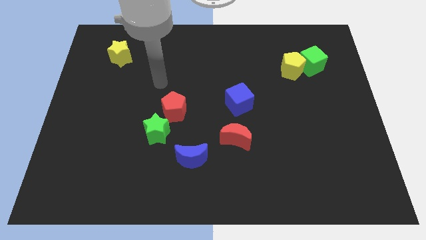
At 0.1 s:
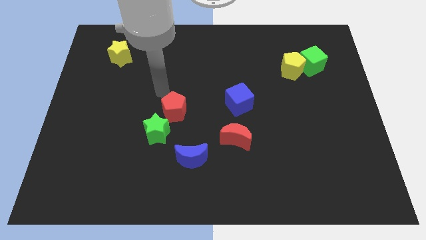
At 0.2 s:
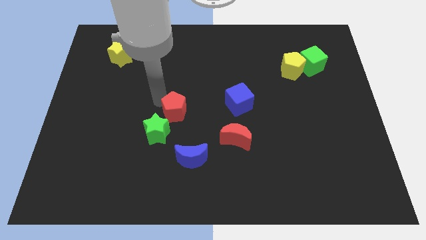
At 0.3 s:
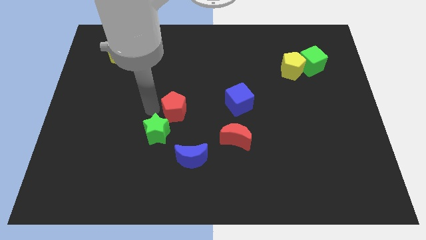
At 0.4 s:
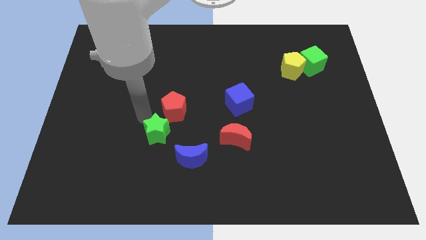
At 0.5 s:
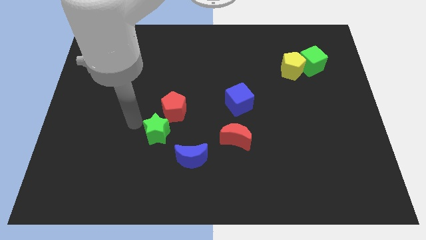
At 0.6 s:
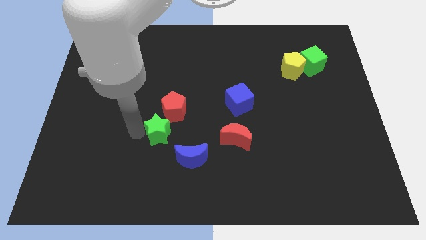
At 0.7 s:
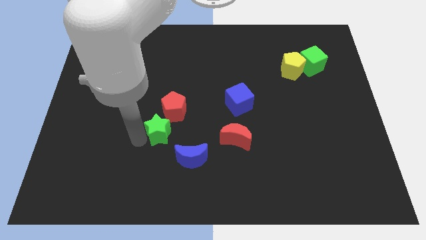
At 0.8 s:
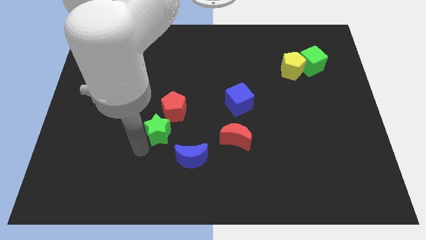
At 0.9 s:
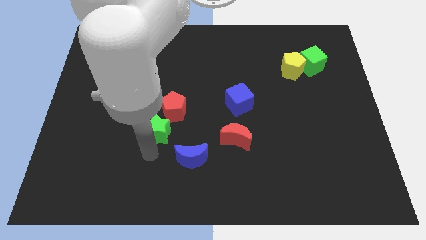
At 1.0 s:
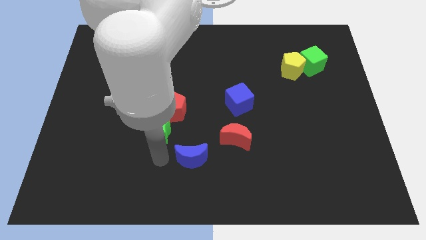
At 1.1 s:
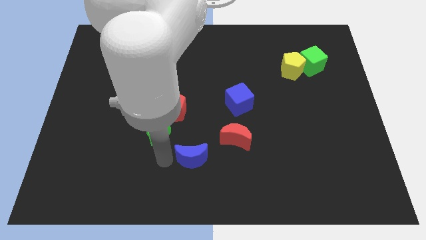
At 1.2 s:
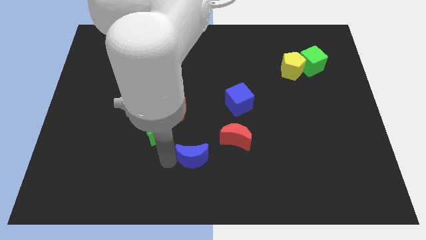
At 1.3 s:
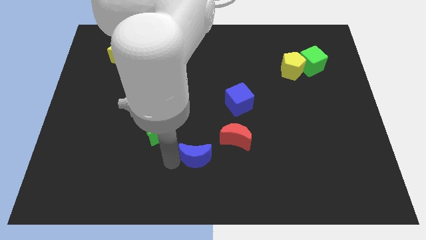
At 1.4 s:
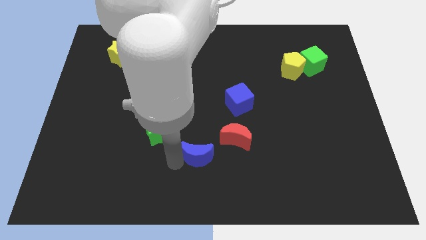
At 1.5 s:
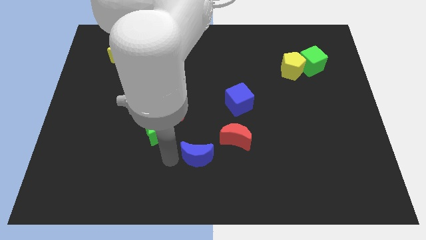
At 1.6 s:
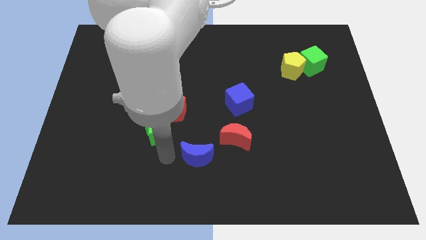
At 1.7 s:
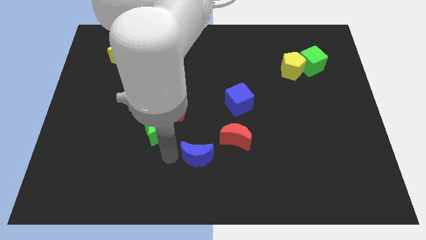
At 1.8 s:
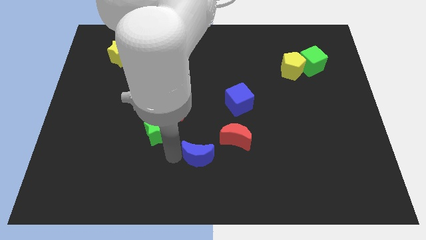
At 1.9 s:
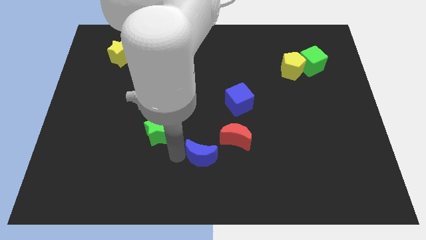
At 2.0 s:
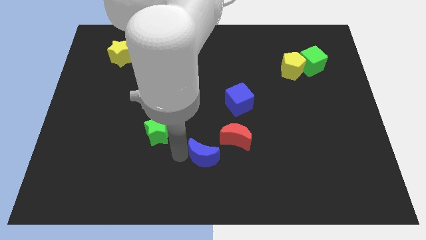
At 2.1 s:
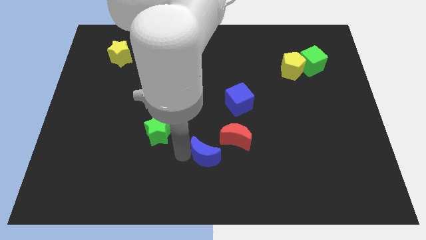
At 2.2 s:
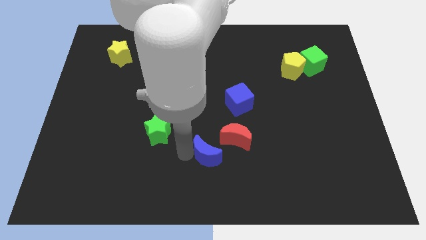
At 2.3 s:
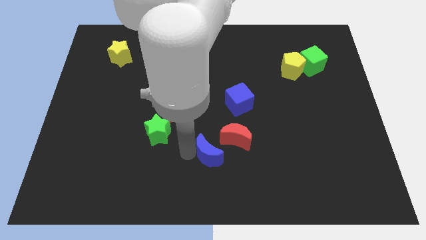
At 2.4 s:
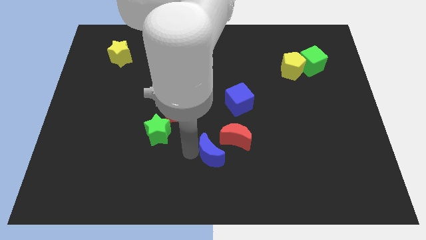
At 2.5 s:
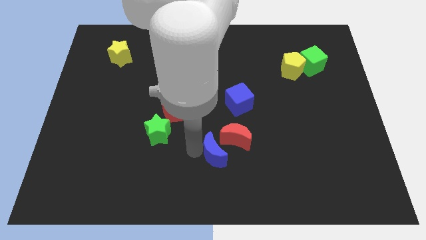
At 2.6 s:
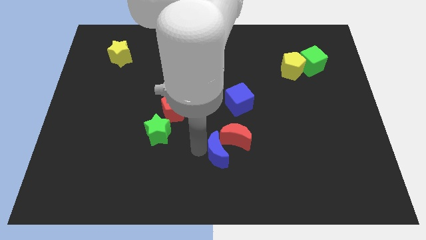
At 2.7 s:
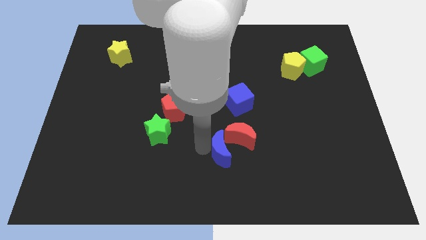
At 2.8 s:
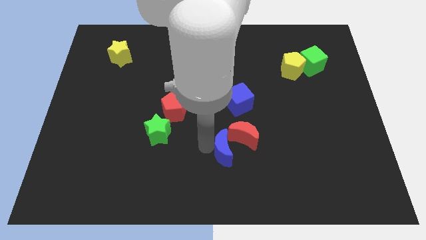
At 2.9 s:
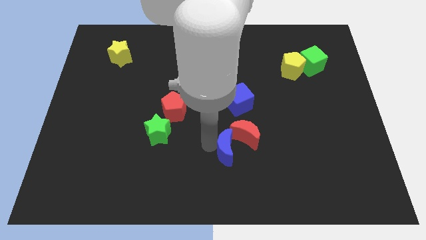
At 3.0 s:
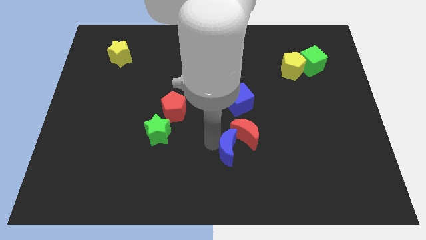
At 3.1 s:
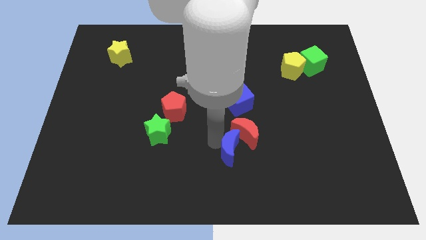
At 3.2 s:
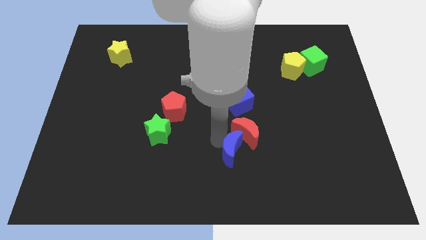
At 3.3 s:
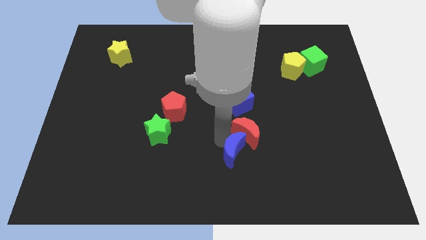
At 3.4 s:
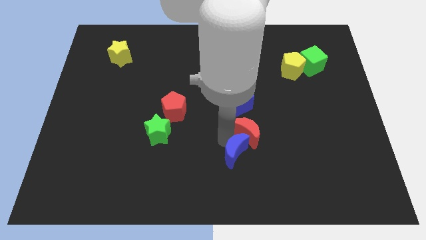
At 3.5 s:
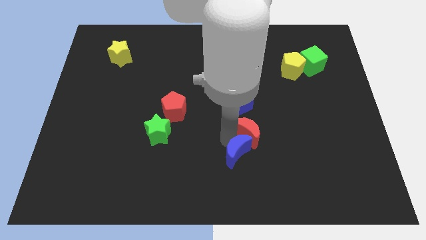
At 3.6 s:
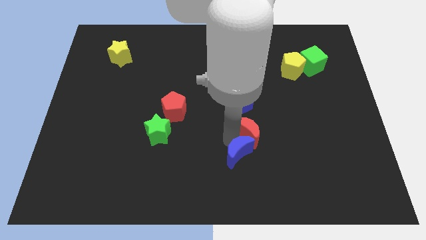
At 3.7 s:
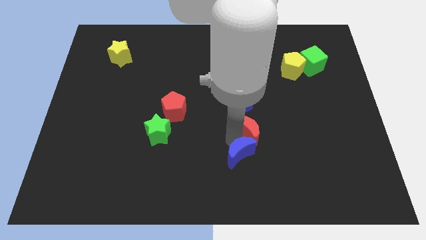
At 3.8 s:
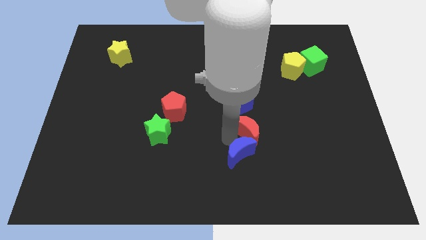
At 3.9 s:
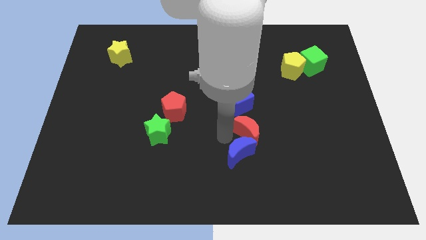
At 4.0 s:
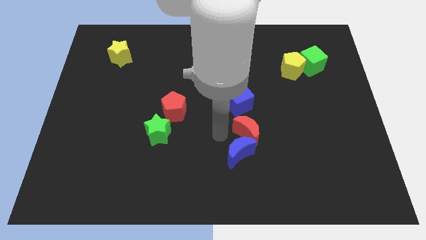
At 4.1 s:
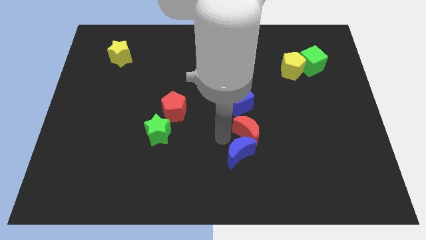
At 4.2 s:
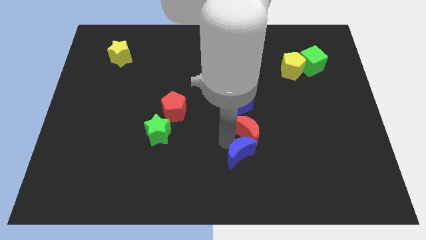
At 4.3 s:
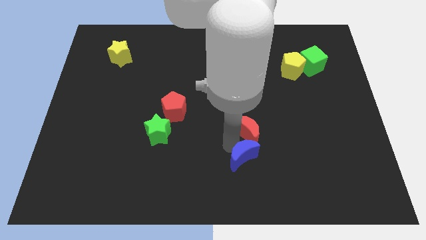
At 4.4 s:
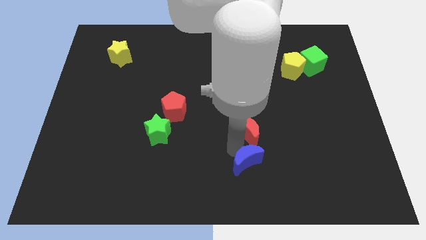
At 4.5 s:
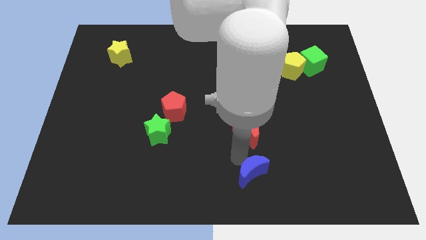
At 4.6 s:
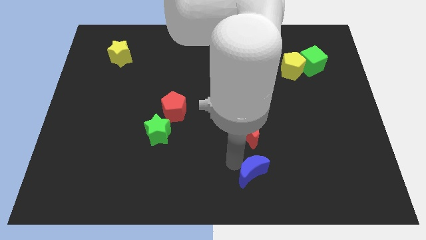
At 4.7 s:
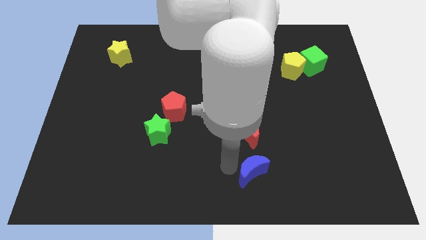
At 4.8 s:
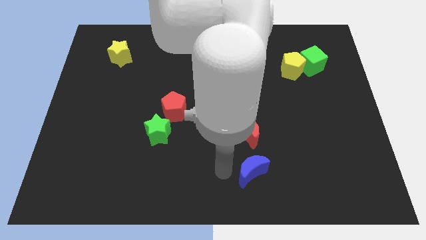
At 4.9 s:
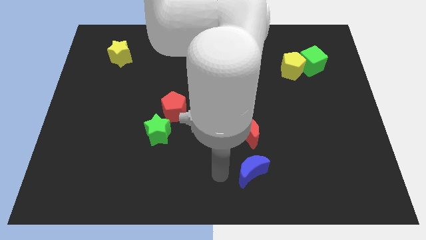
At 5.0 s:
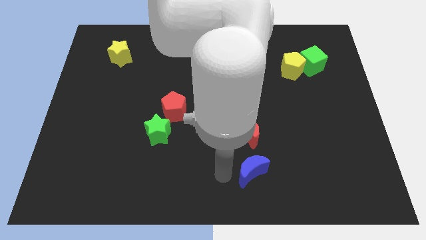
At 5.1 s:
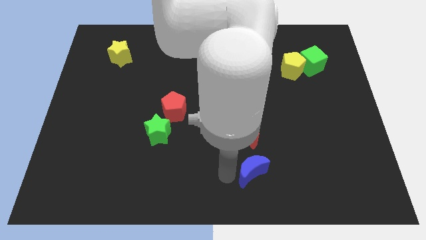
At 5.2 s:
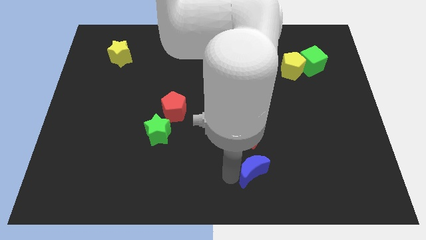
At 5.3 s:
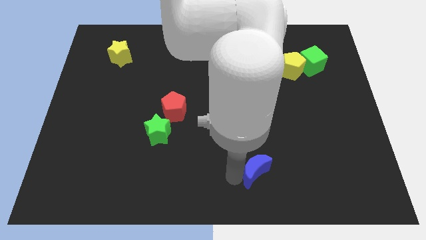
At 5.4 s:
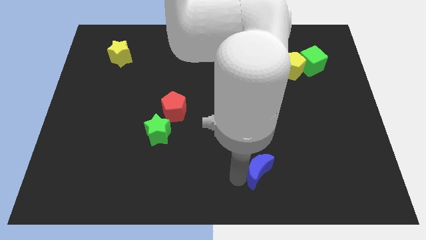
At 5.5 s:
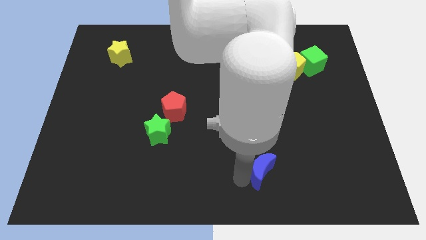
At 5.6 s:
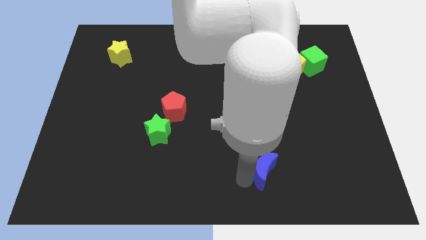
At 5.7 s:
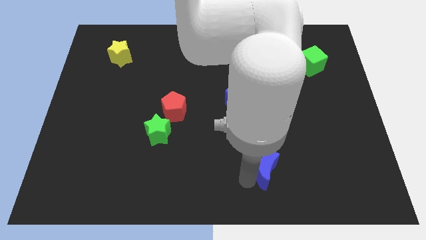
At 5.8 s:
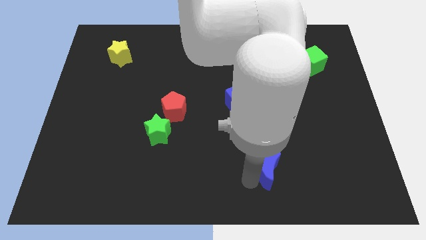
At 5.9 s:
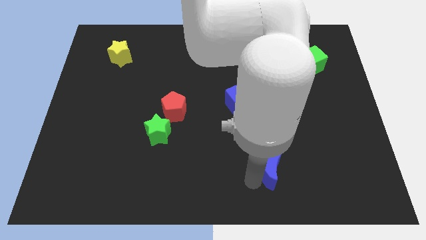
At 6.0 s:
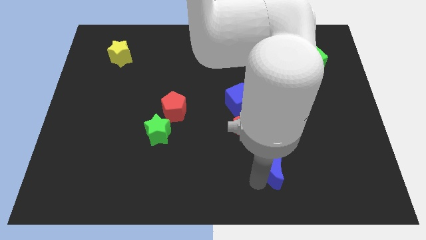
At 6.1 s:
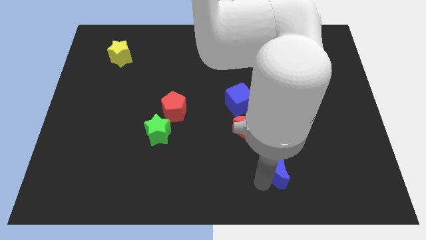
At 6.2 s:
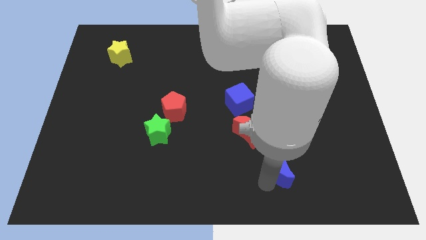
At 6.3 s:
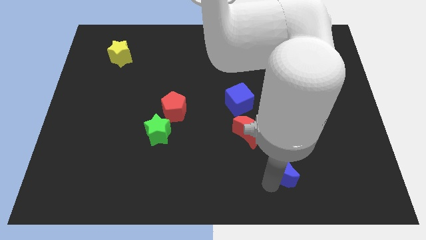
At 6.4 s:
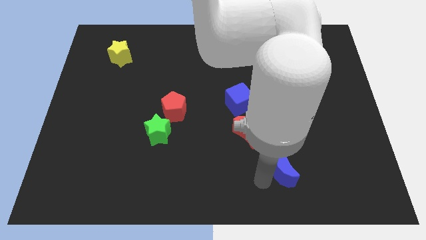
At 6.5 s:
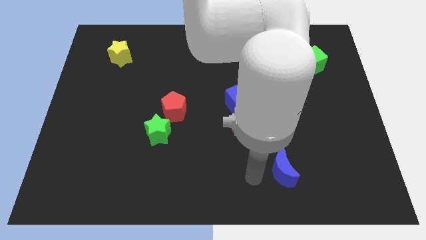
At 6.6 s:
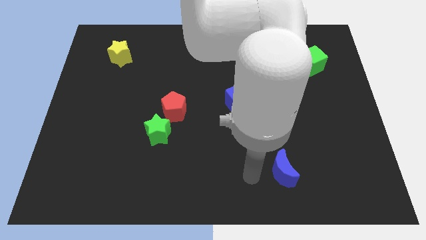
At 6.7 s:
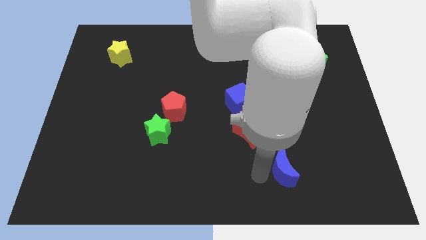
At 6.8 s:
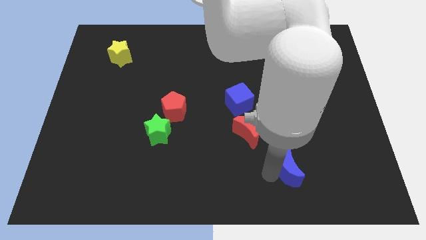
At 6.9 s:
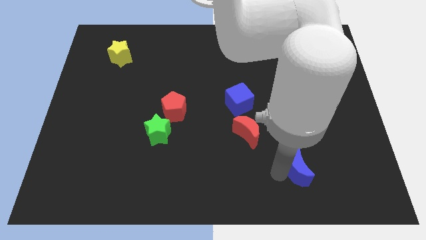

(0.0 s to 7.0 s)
move the blue moon right

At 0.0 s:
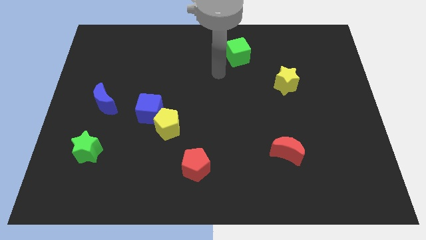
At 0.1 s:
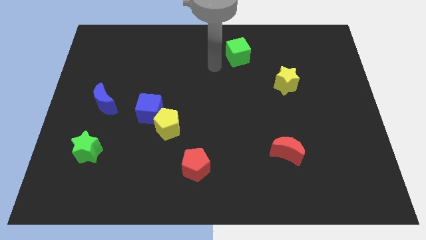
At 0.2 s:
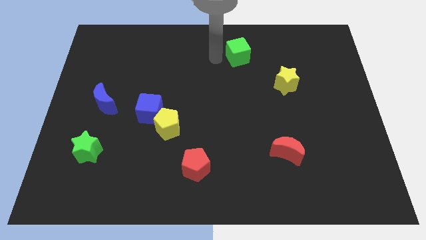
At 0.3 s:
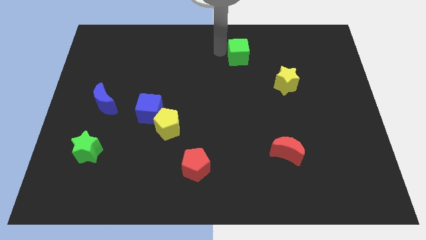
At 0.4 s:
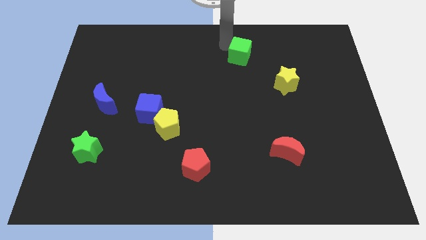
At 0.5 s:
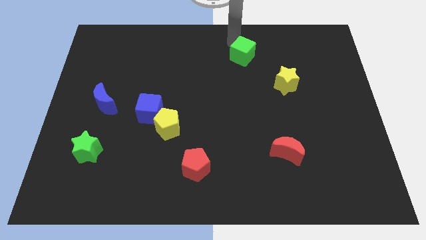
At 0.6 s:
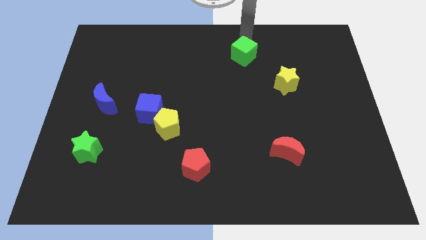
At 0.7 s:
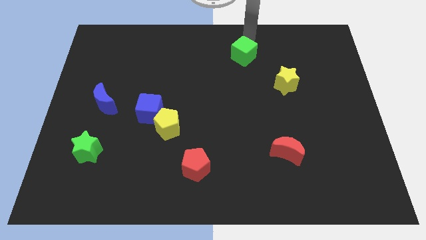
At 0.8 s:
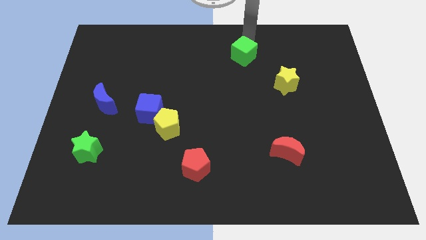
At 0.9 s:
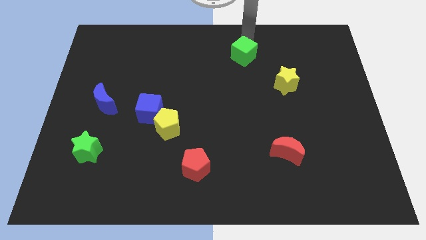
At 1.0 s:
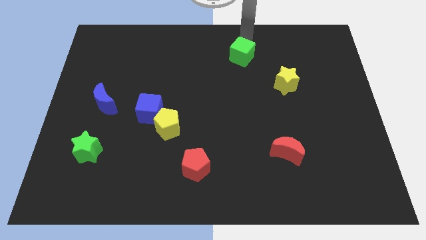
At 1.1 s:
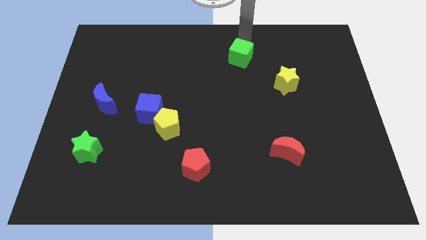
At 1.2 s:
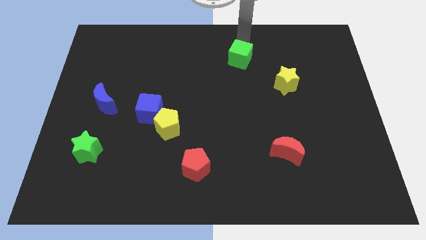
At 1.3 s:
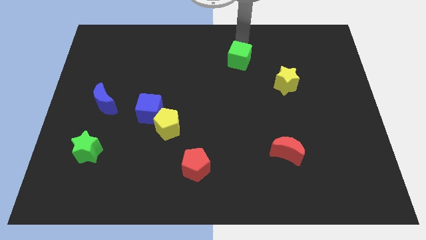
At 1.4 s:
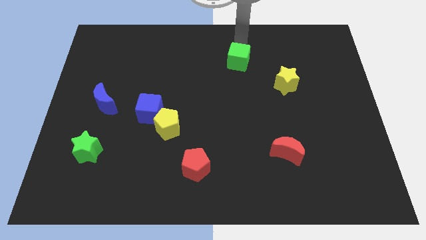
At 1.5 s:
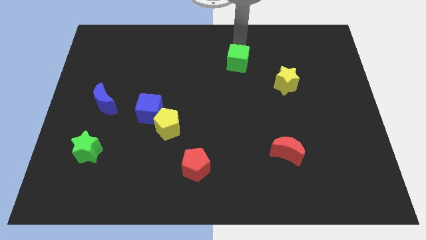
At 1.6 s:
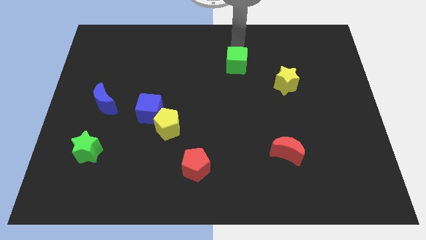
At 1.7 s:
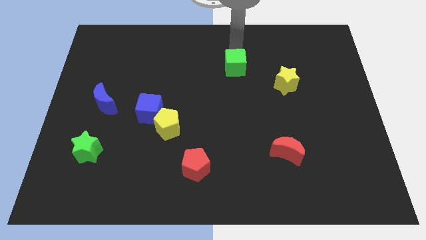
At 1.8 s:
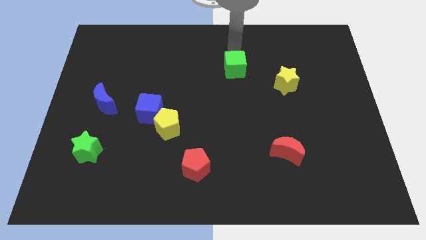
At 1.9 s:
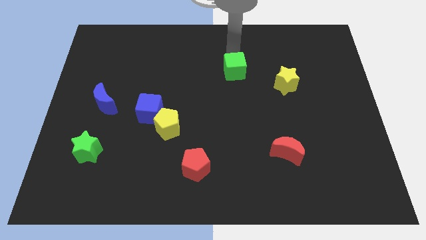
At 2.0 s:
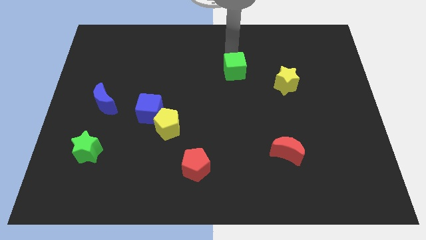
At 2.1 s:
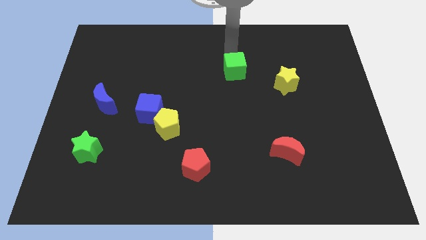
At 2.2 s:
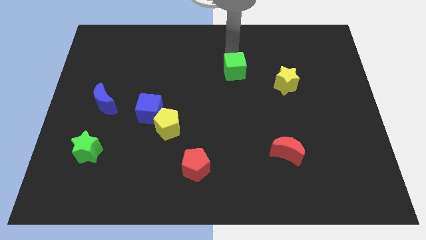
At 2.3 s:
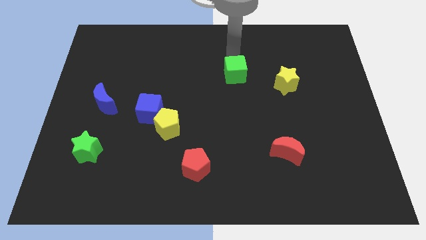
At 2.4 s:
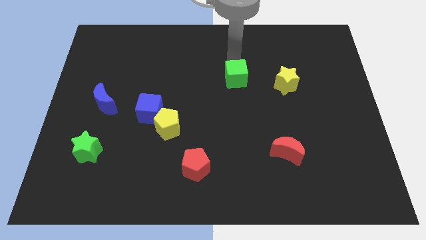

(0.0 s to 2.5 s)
slide the green cube somewhat down
